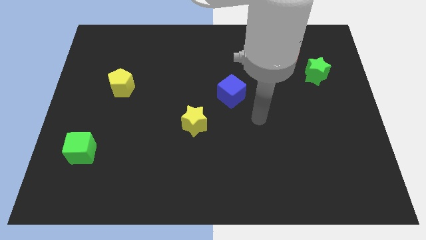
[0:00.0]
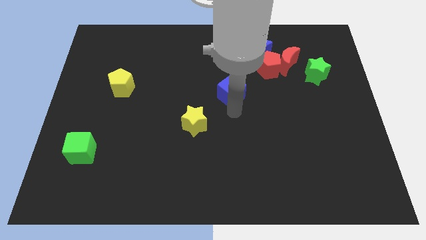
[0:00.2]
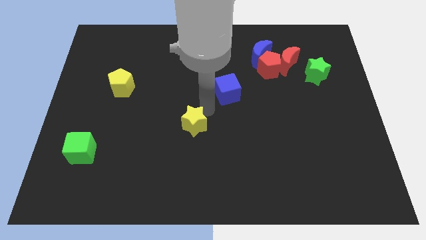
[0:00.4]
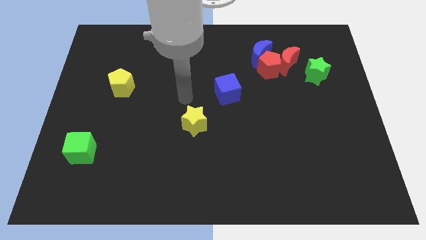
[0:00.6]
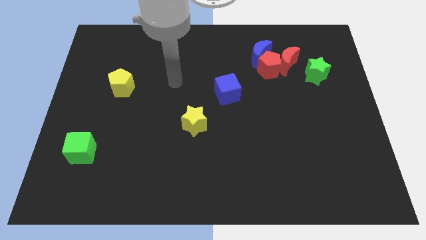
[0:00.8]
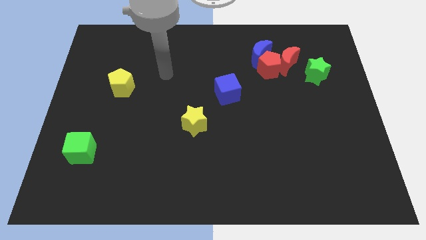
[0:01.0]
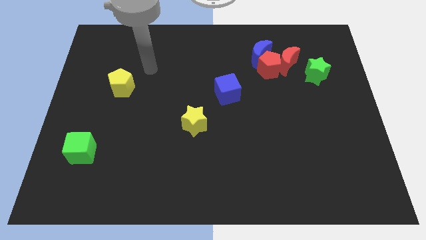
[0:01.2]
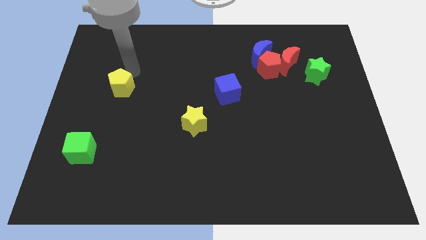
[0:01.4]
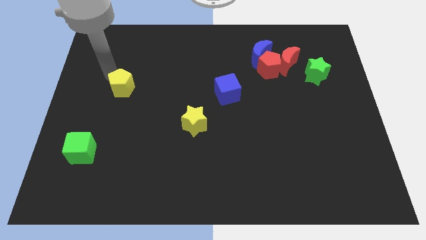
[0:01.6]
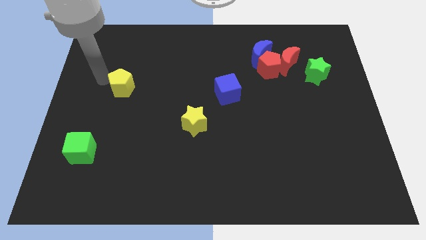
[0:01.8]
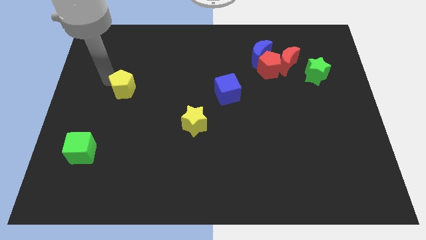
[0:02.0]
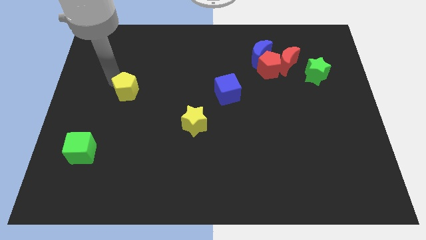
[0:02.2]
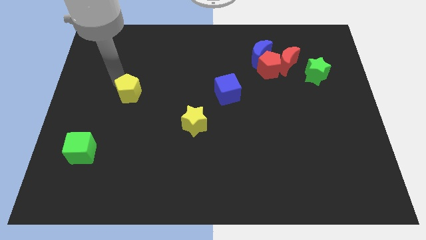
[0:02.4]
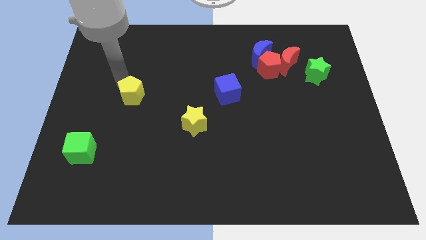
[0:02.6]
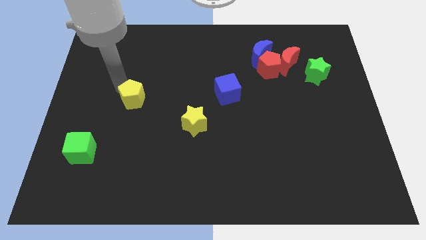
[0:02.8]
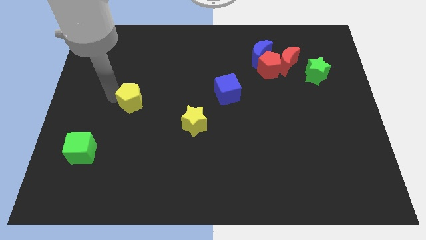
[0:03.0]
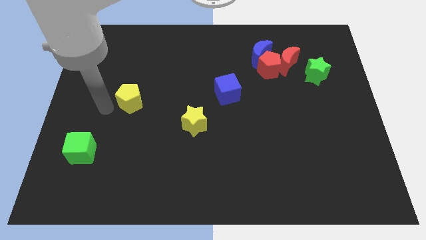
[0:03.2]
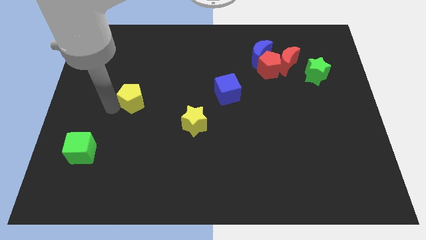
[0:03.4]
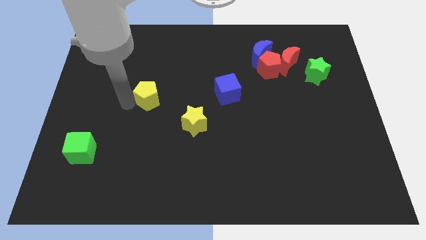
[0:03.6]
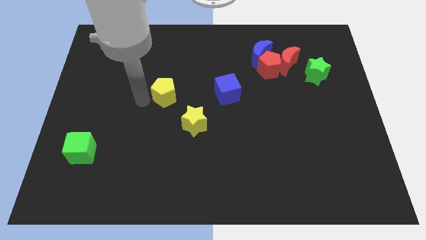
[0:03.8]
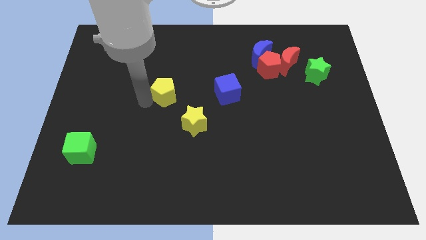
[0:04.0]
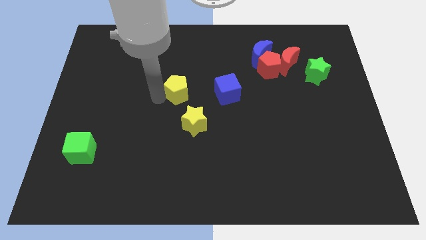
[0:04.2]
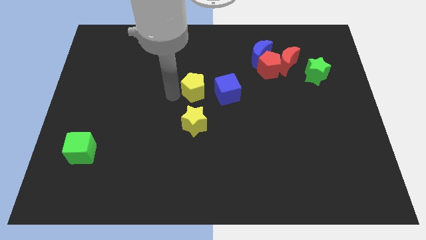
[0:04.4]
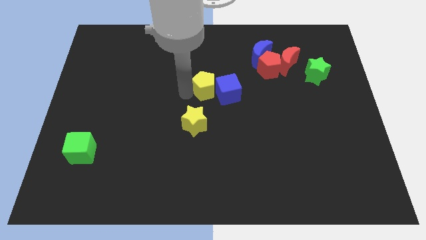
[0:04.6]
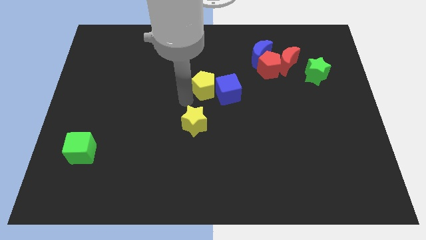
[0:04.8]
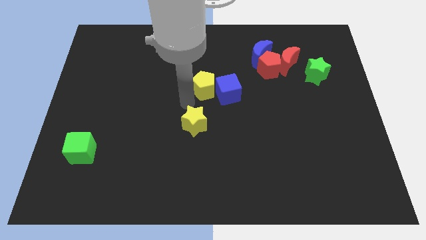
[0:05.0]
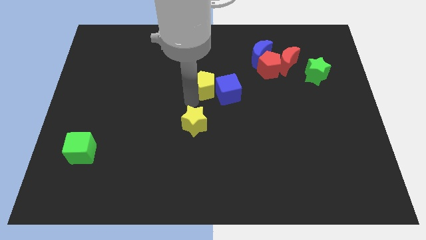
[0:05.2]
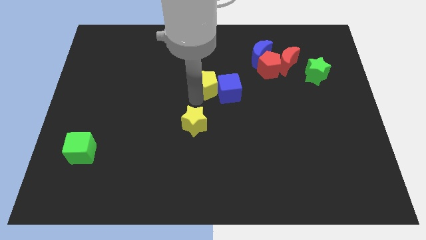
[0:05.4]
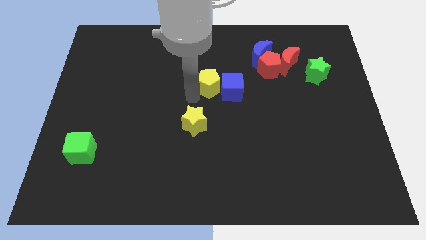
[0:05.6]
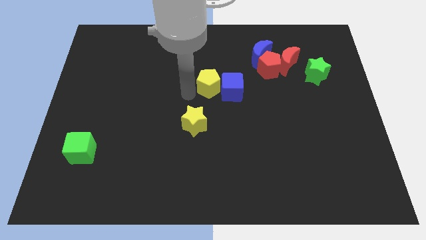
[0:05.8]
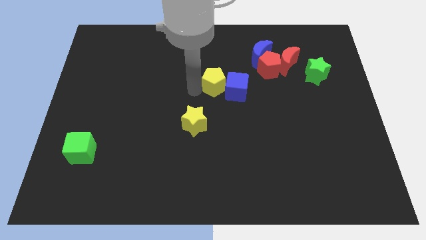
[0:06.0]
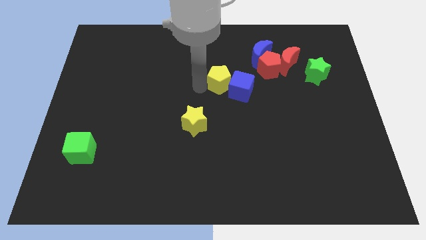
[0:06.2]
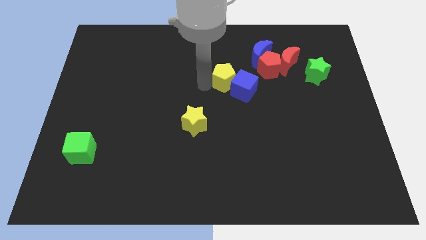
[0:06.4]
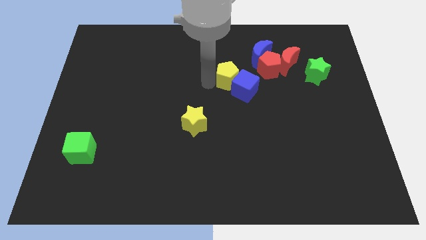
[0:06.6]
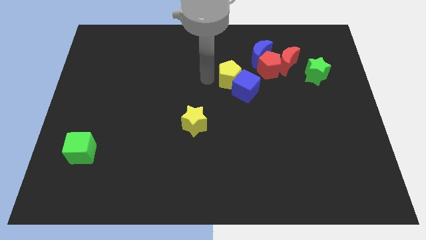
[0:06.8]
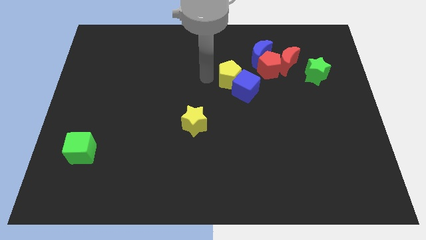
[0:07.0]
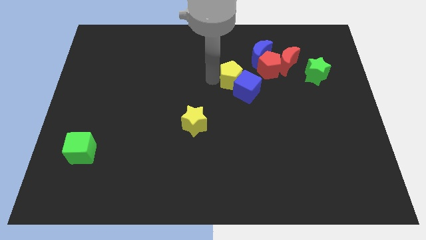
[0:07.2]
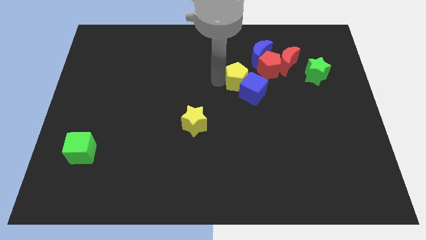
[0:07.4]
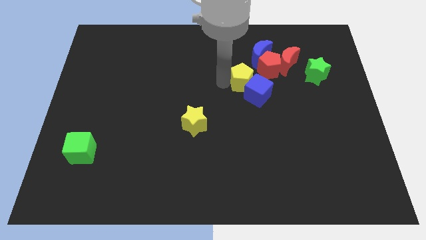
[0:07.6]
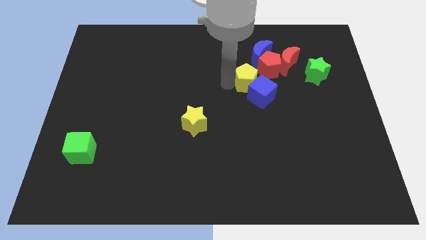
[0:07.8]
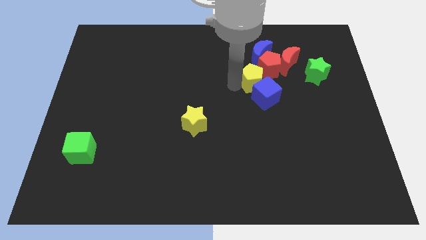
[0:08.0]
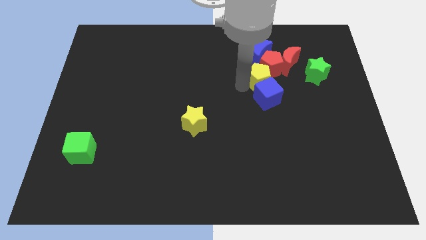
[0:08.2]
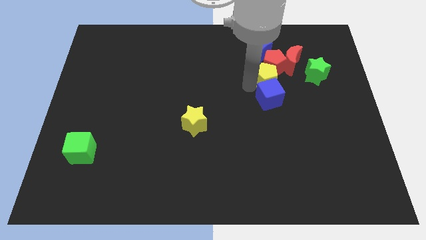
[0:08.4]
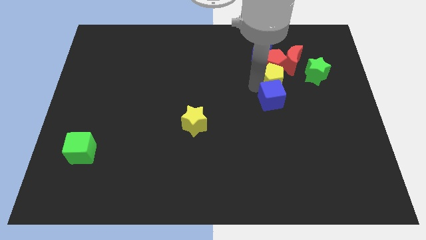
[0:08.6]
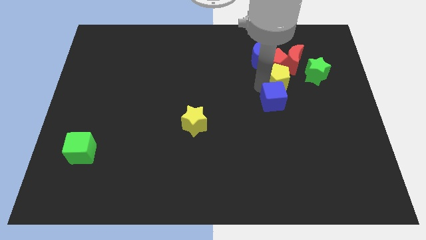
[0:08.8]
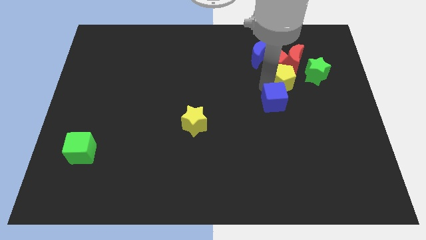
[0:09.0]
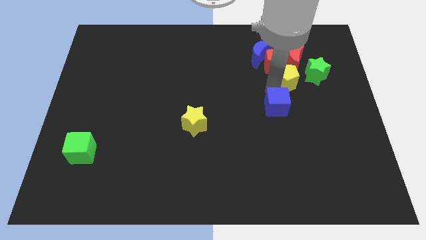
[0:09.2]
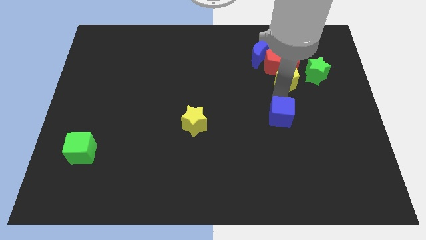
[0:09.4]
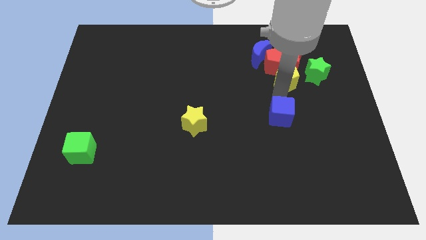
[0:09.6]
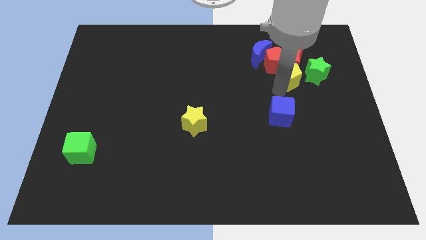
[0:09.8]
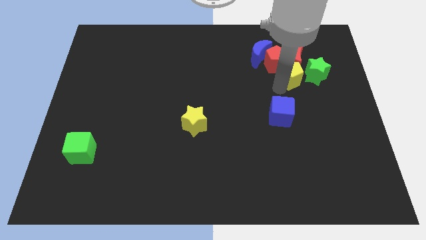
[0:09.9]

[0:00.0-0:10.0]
move the yellow pentagon to the red moon

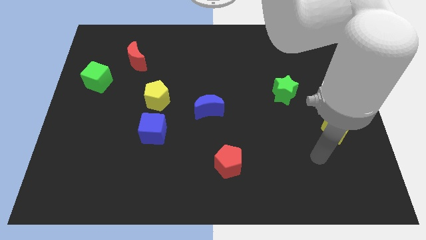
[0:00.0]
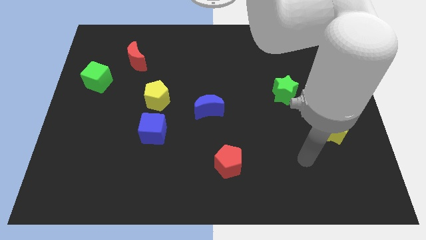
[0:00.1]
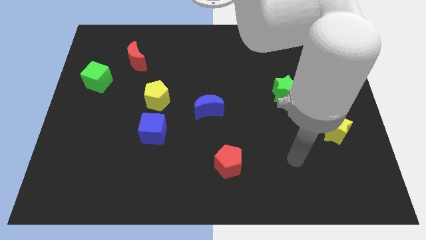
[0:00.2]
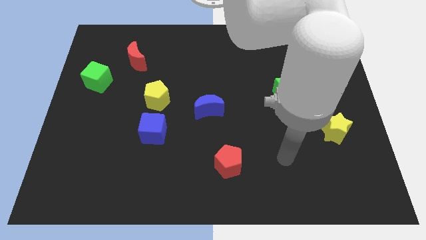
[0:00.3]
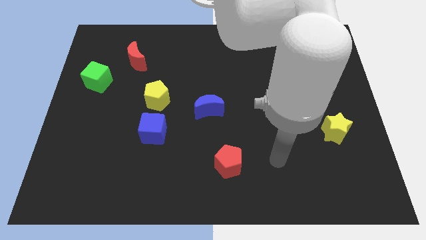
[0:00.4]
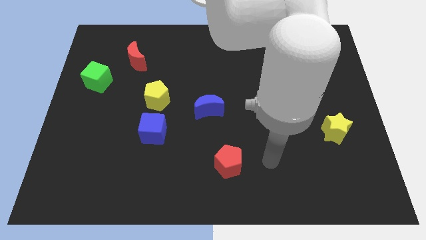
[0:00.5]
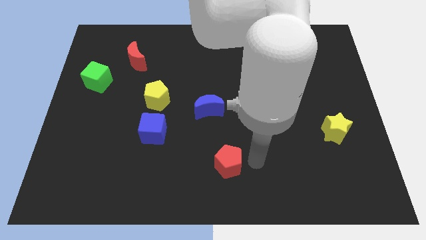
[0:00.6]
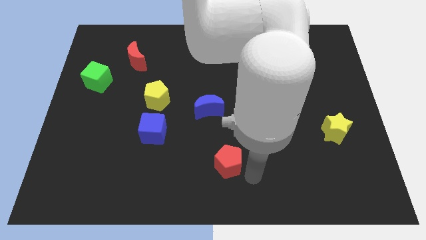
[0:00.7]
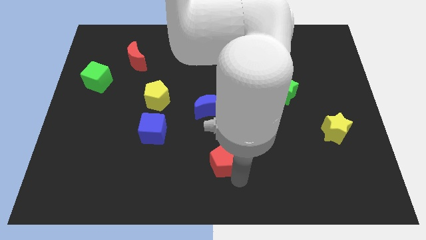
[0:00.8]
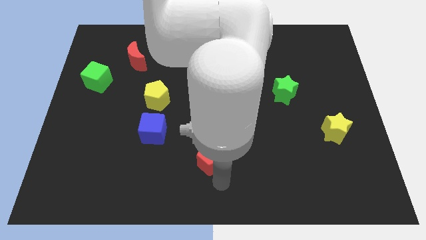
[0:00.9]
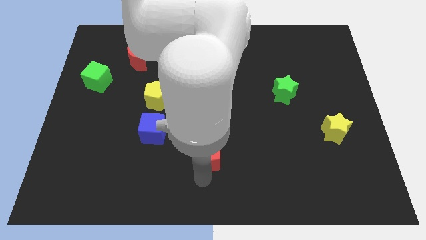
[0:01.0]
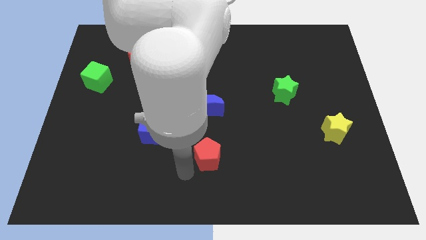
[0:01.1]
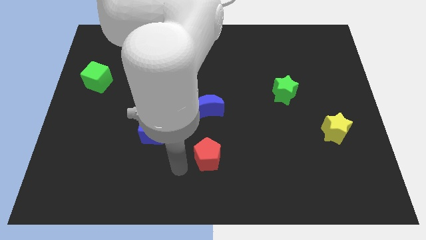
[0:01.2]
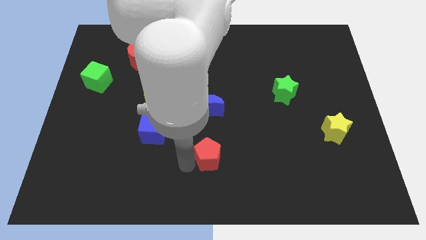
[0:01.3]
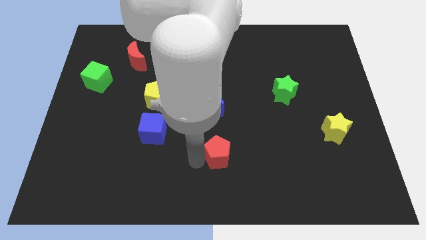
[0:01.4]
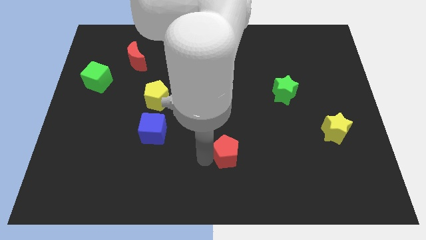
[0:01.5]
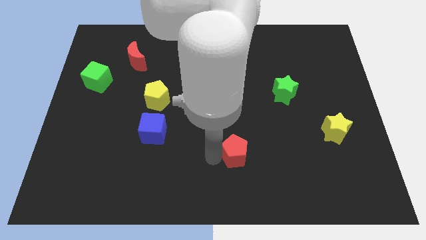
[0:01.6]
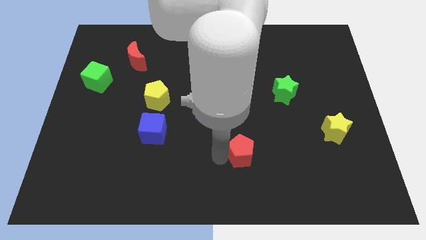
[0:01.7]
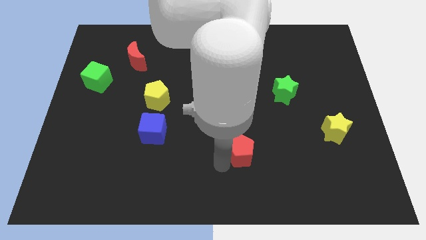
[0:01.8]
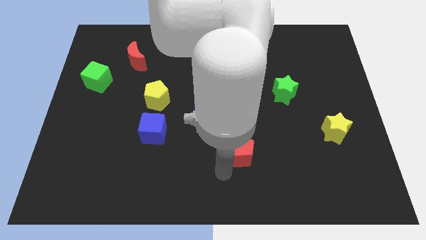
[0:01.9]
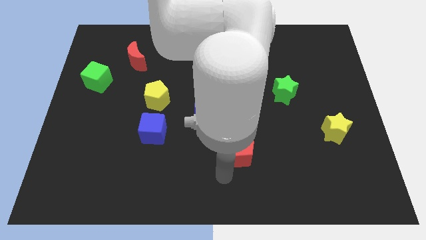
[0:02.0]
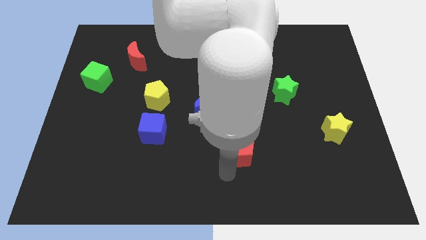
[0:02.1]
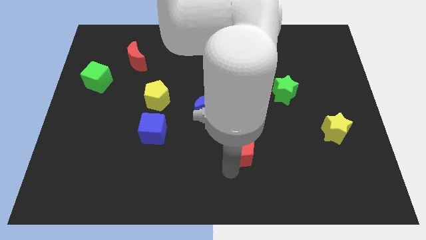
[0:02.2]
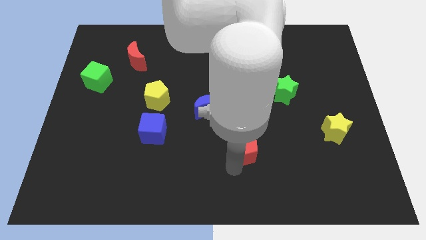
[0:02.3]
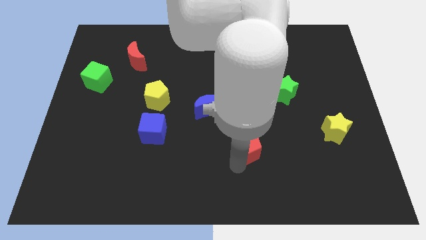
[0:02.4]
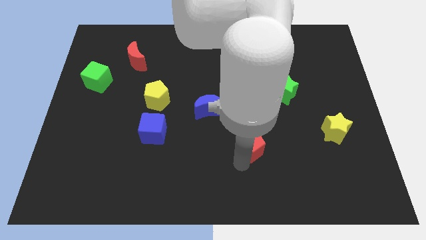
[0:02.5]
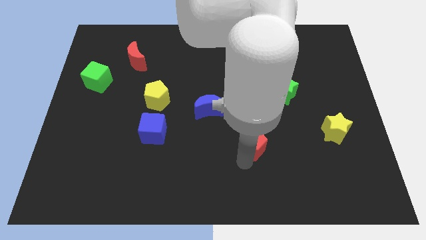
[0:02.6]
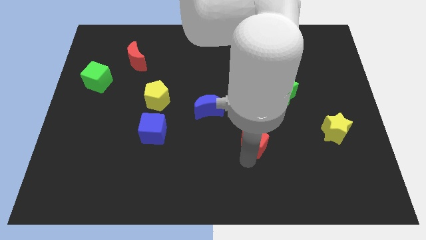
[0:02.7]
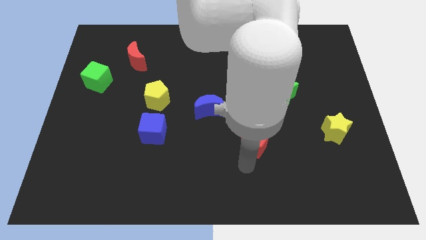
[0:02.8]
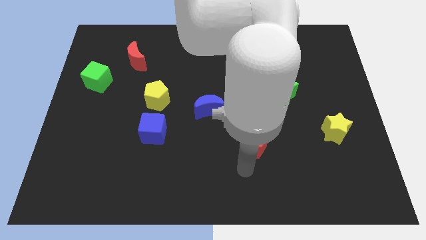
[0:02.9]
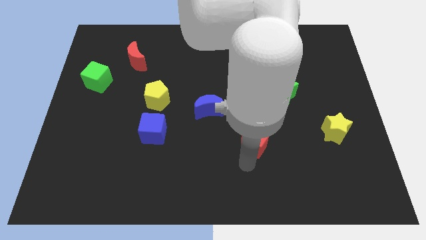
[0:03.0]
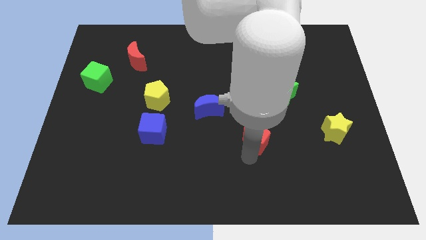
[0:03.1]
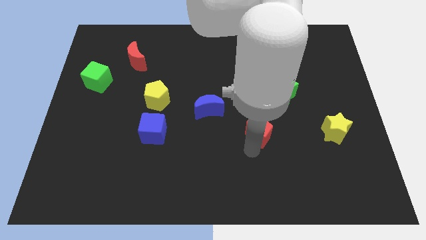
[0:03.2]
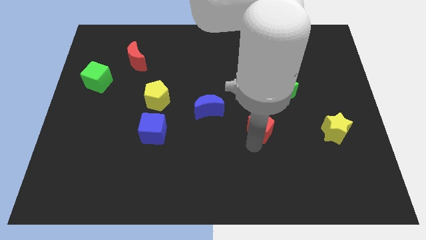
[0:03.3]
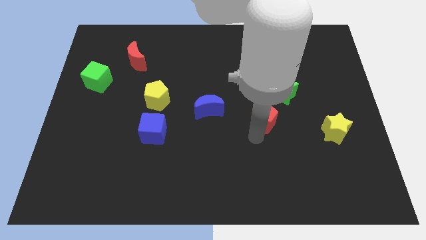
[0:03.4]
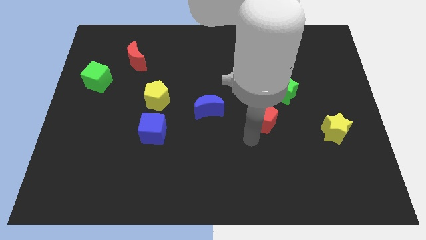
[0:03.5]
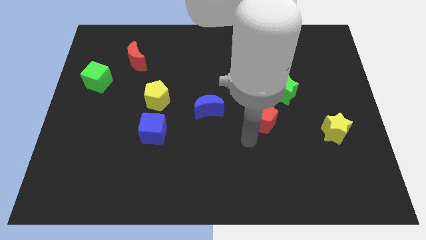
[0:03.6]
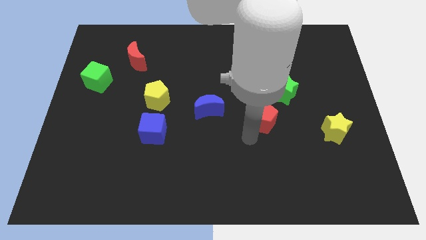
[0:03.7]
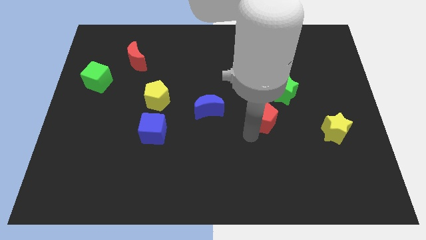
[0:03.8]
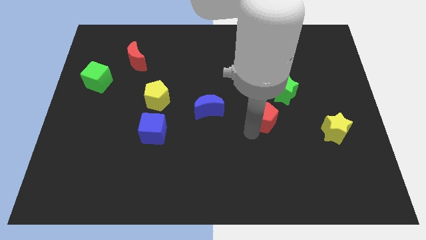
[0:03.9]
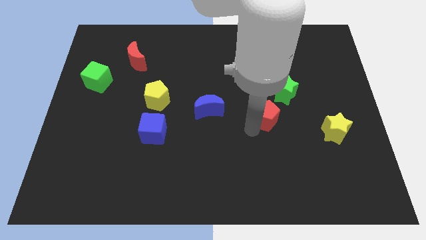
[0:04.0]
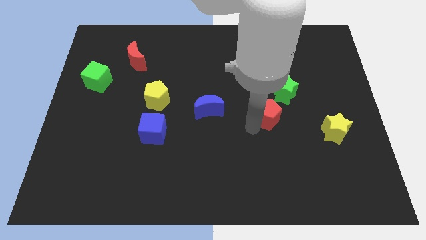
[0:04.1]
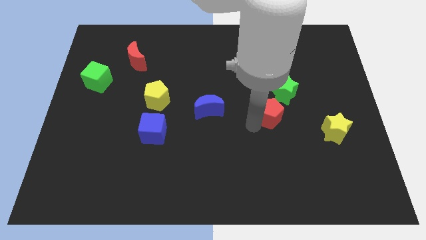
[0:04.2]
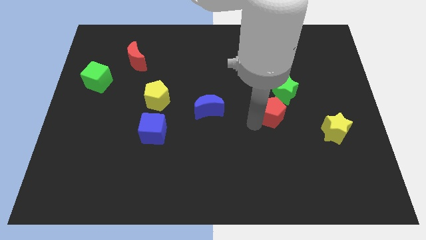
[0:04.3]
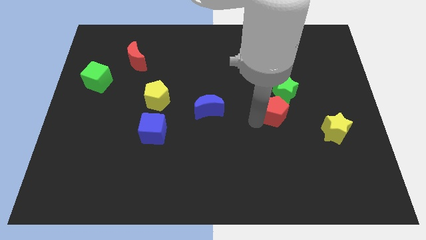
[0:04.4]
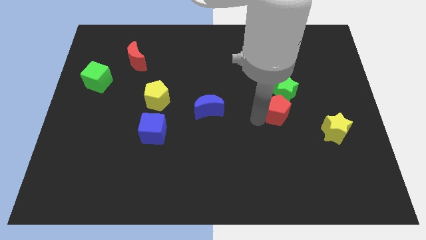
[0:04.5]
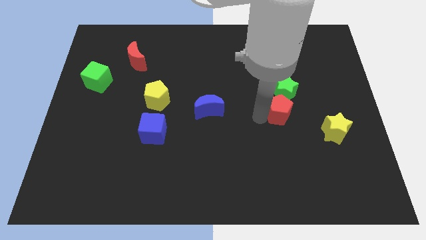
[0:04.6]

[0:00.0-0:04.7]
slide the red pentagon to the green star
